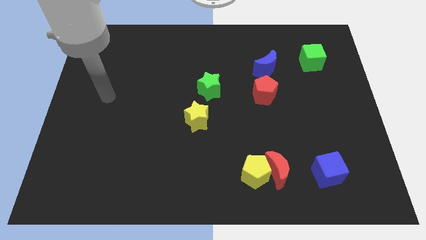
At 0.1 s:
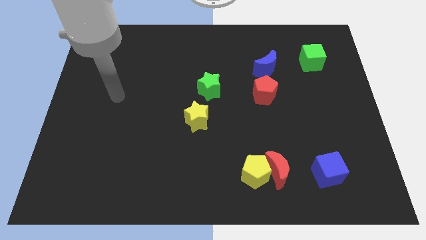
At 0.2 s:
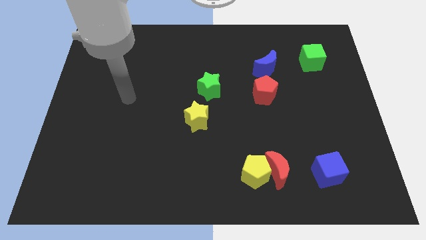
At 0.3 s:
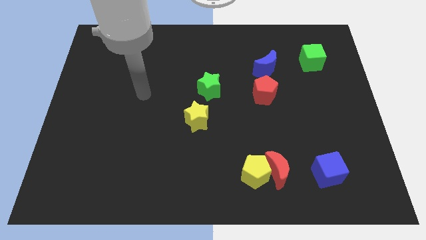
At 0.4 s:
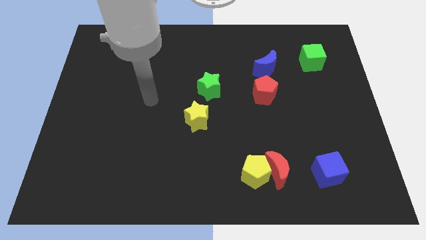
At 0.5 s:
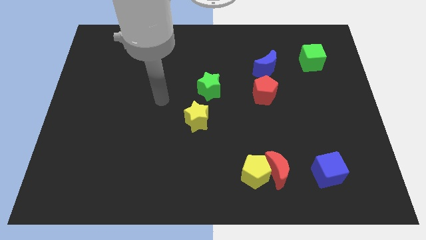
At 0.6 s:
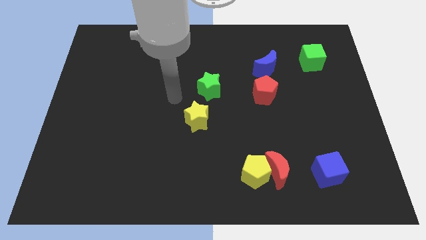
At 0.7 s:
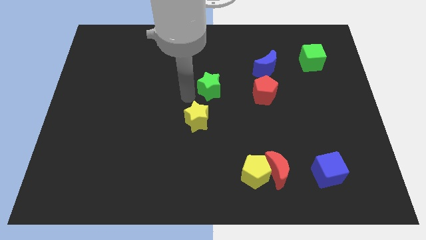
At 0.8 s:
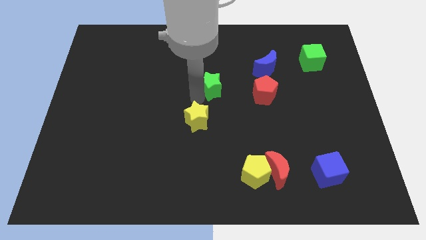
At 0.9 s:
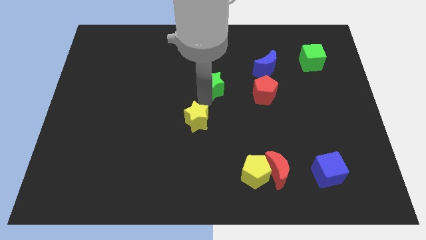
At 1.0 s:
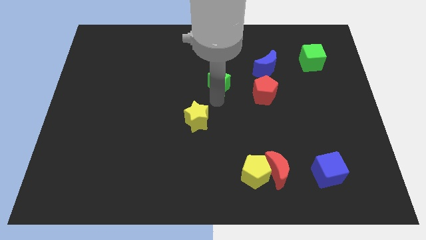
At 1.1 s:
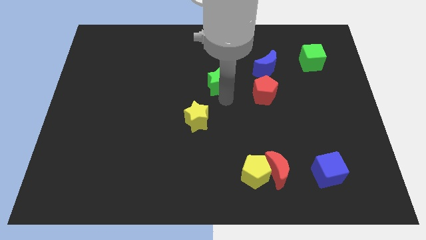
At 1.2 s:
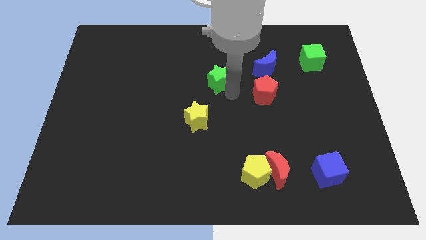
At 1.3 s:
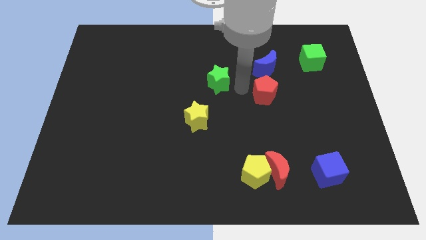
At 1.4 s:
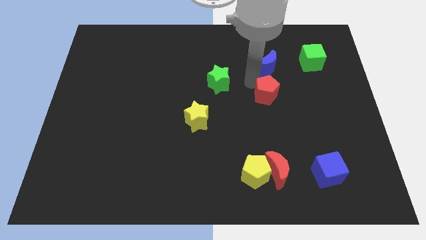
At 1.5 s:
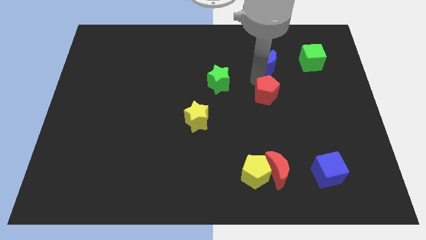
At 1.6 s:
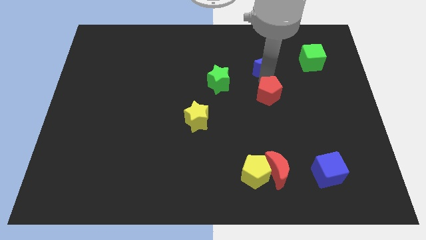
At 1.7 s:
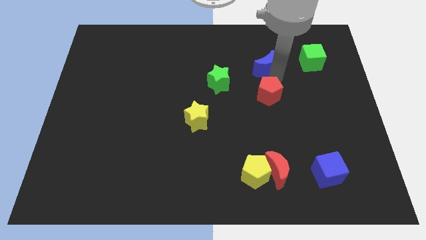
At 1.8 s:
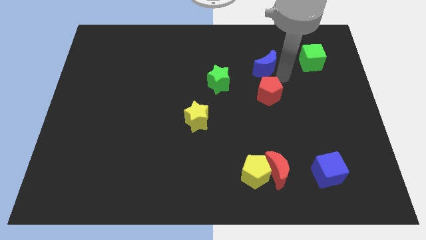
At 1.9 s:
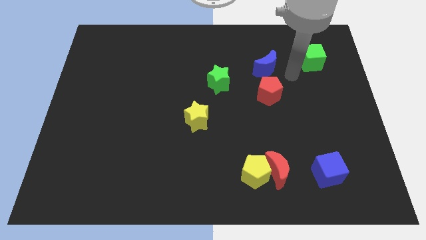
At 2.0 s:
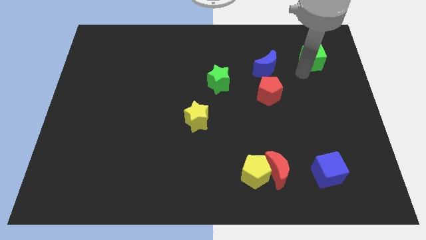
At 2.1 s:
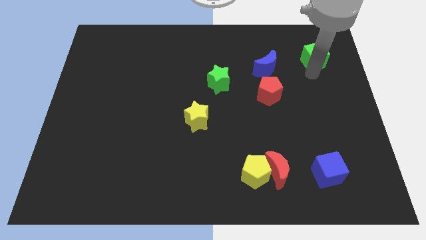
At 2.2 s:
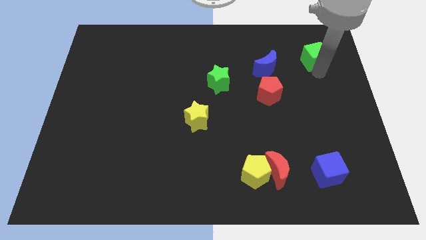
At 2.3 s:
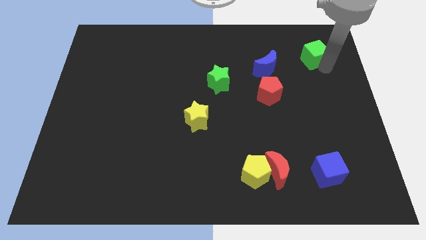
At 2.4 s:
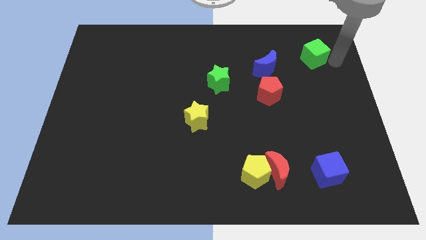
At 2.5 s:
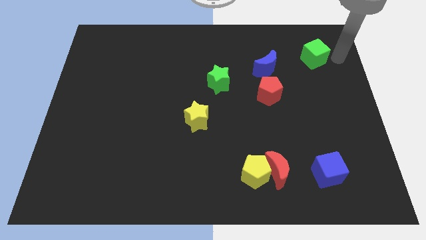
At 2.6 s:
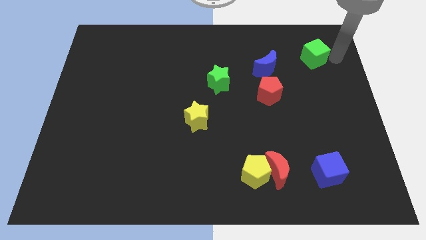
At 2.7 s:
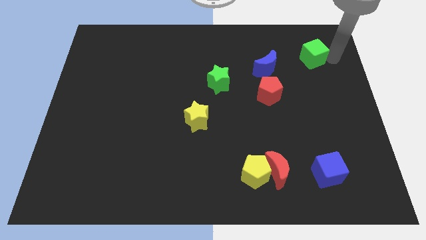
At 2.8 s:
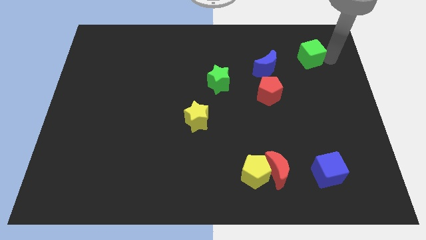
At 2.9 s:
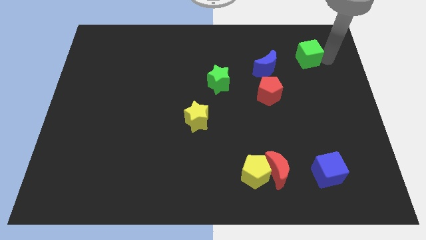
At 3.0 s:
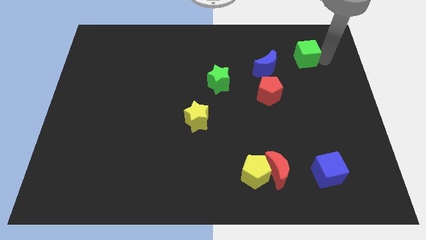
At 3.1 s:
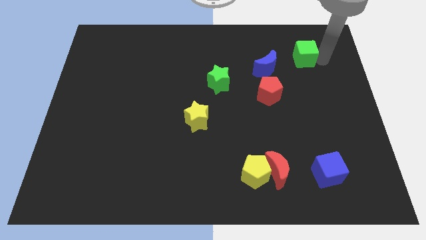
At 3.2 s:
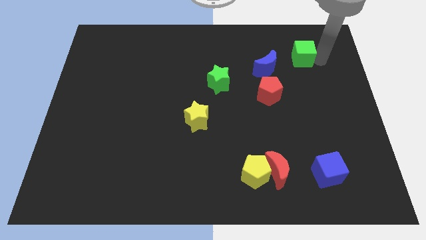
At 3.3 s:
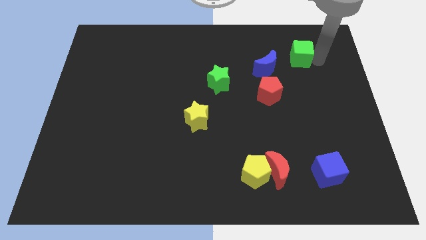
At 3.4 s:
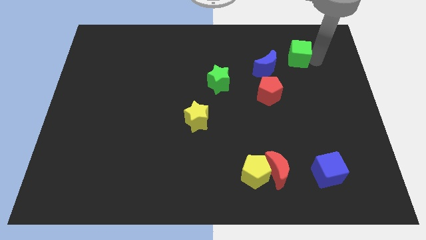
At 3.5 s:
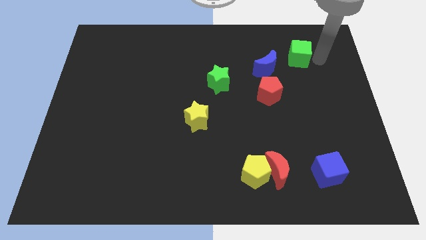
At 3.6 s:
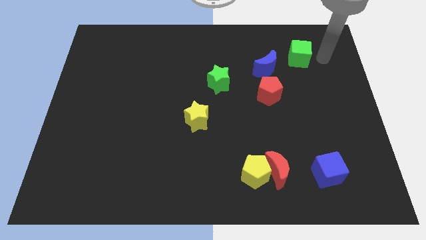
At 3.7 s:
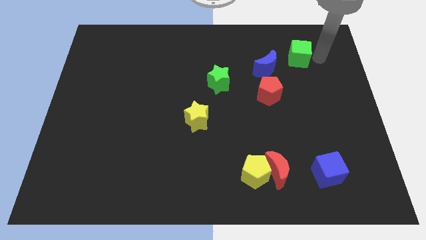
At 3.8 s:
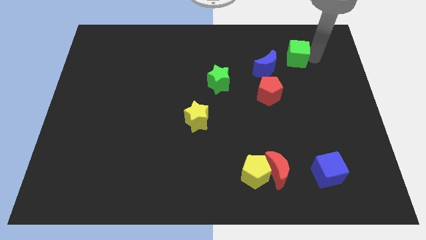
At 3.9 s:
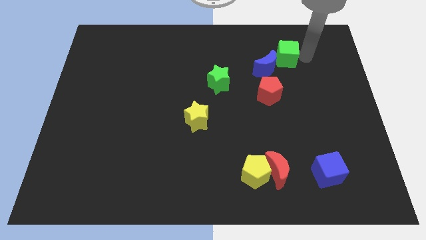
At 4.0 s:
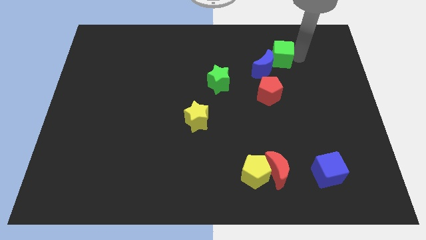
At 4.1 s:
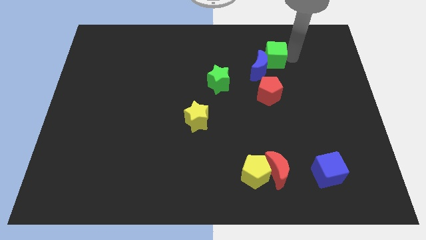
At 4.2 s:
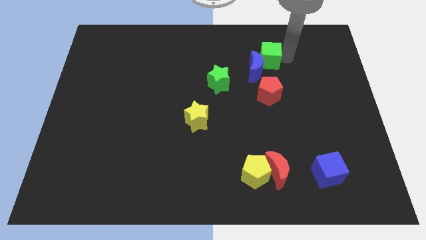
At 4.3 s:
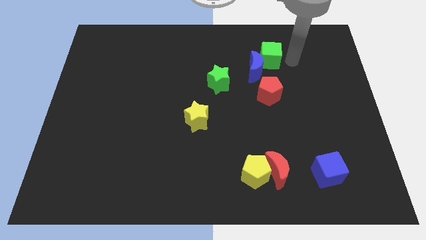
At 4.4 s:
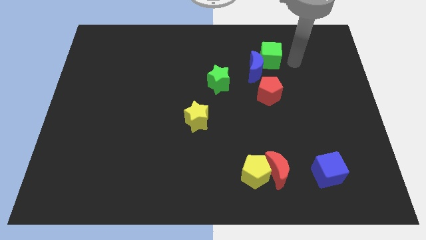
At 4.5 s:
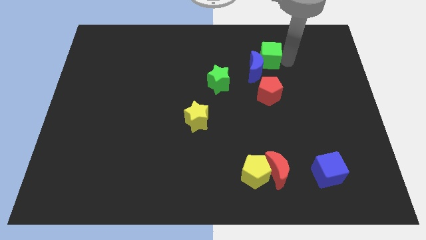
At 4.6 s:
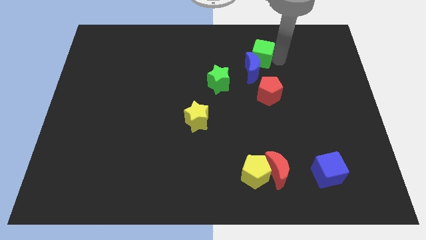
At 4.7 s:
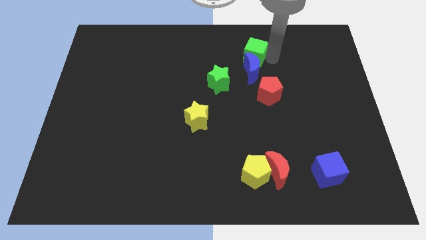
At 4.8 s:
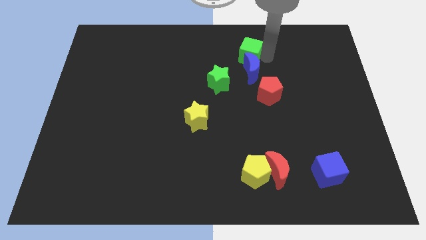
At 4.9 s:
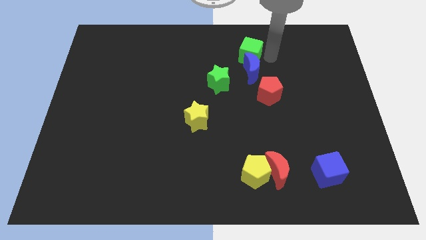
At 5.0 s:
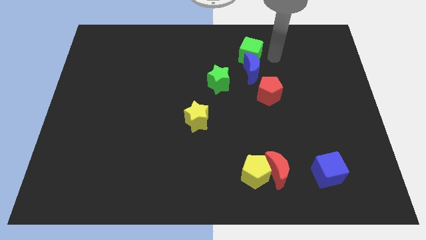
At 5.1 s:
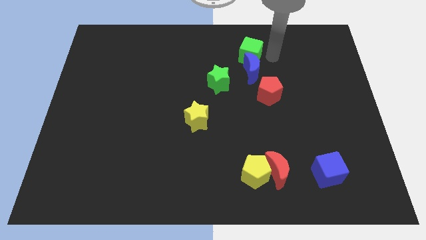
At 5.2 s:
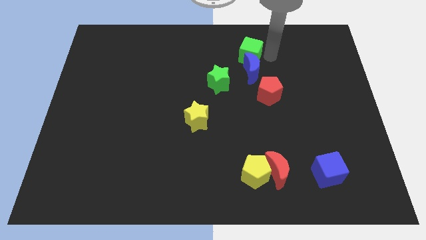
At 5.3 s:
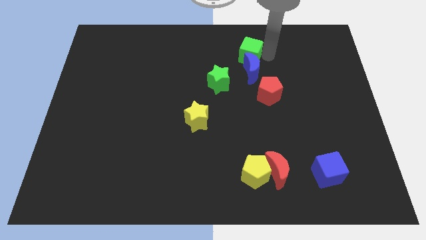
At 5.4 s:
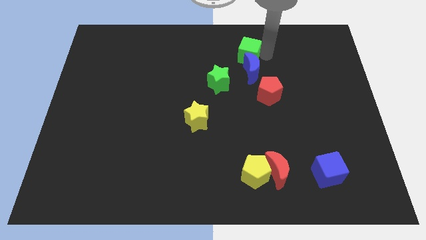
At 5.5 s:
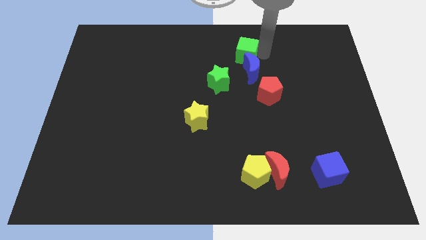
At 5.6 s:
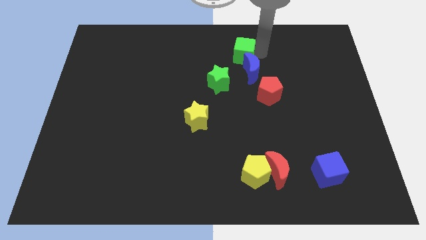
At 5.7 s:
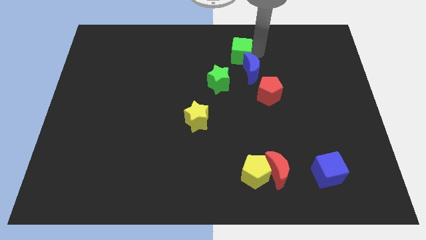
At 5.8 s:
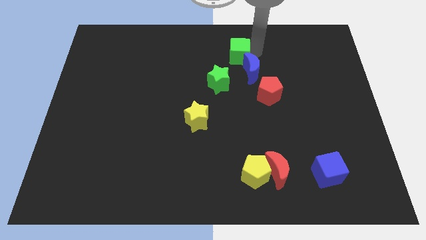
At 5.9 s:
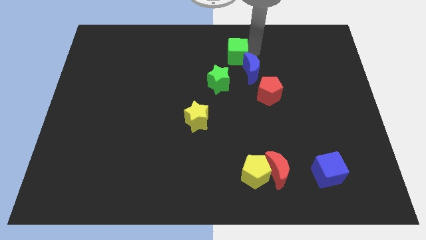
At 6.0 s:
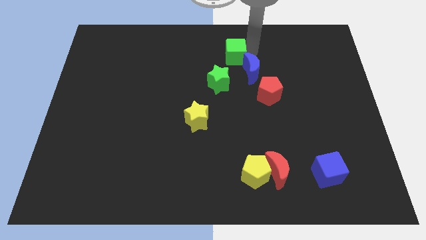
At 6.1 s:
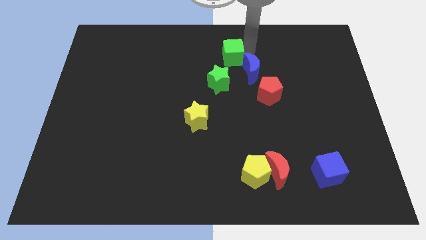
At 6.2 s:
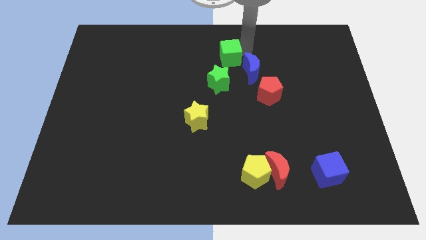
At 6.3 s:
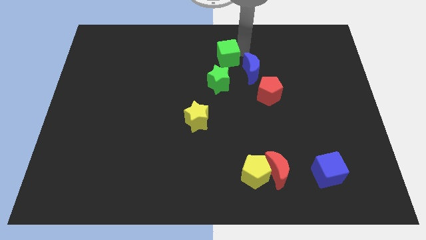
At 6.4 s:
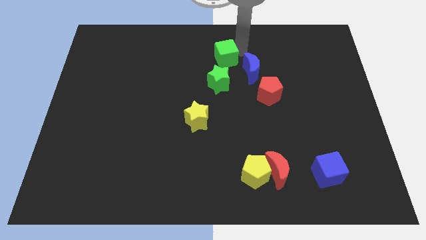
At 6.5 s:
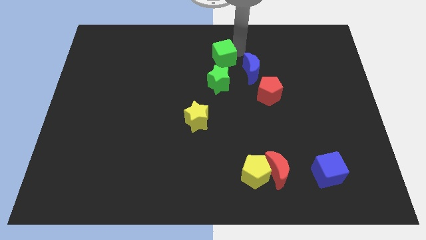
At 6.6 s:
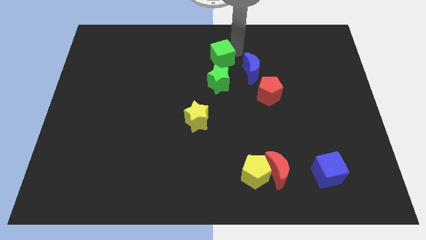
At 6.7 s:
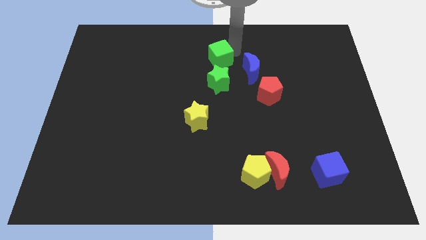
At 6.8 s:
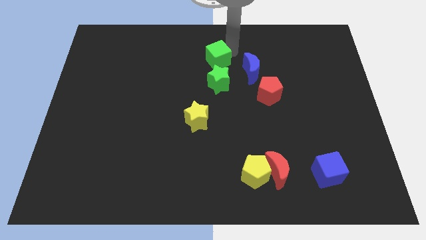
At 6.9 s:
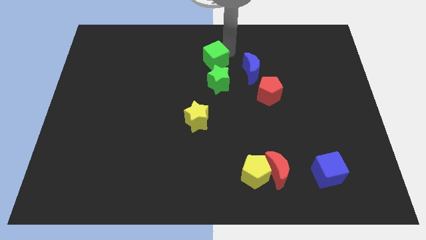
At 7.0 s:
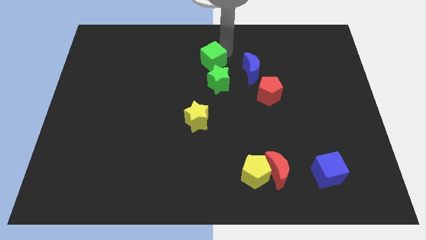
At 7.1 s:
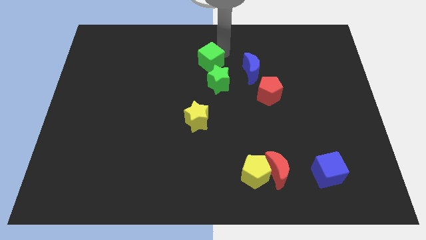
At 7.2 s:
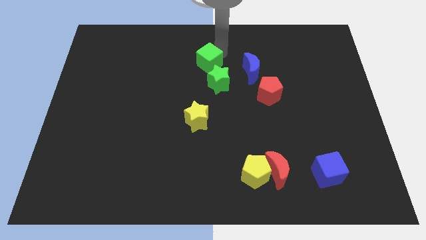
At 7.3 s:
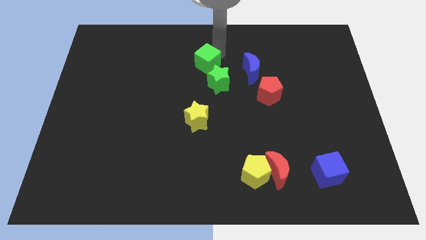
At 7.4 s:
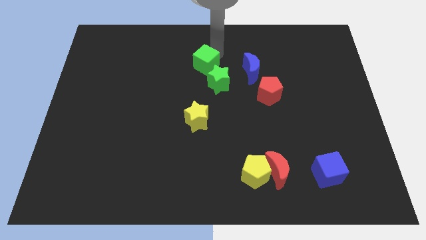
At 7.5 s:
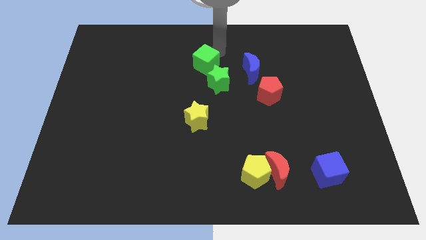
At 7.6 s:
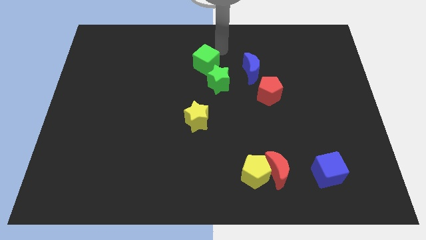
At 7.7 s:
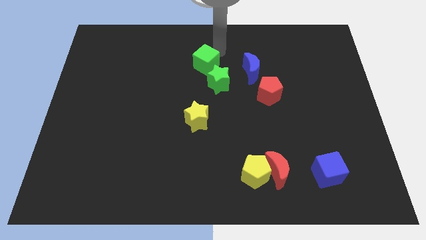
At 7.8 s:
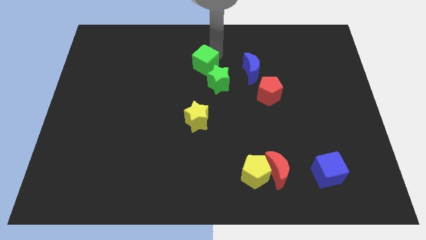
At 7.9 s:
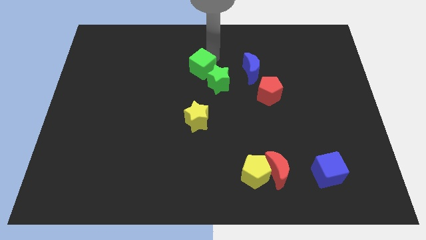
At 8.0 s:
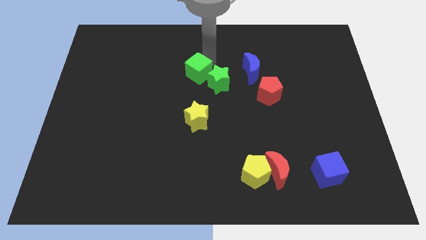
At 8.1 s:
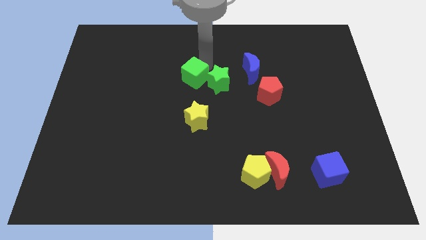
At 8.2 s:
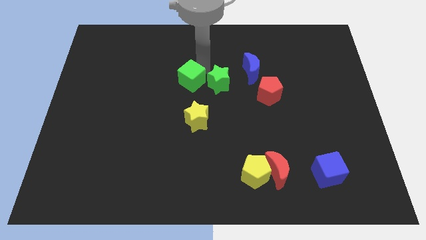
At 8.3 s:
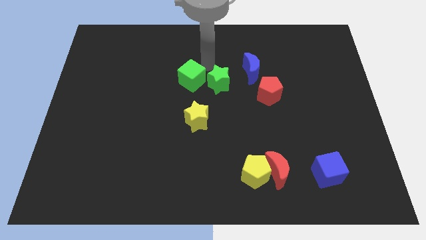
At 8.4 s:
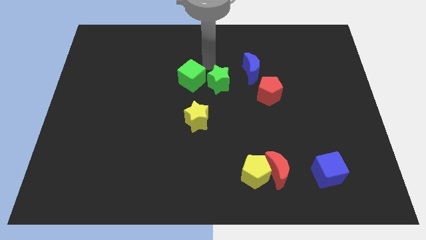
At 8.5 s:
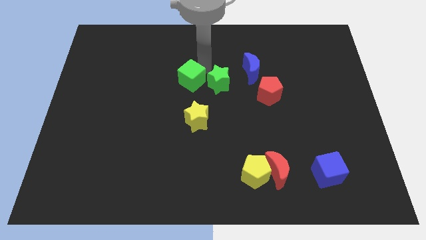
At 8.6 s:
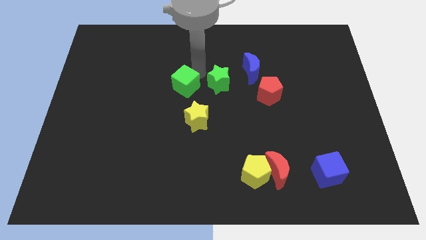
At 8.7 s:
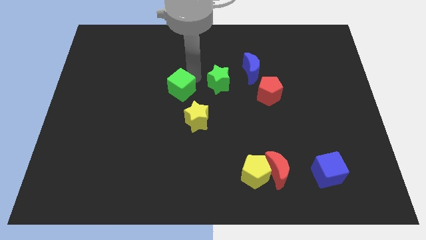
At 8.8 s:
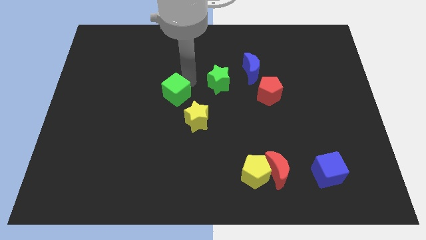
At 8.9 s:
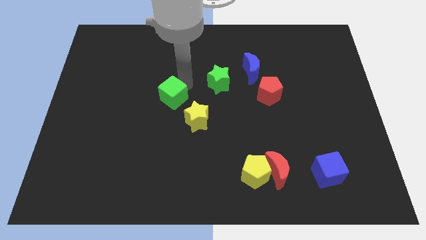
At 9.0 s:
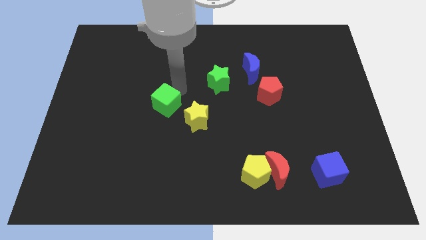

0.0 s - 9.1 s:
slide the green cube to the left of the yellow star
